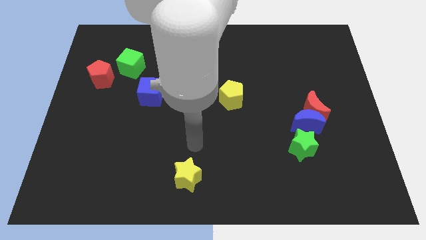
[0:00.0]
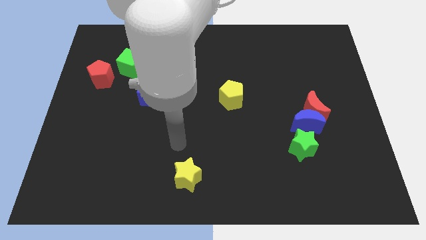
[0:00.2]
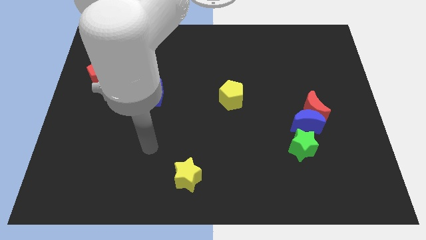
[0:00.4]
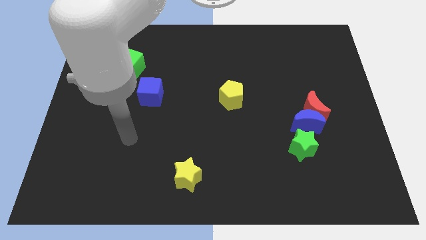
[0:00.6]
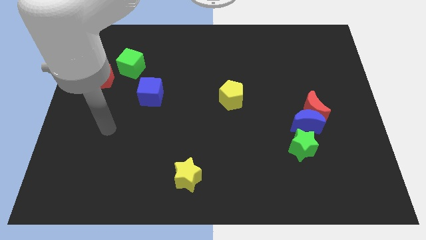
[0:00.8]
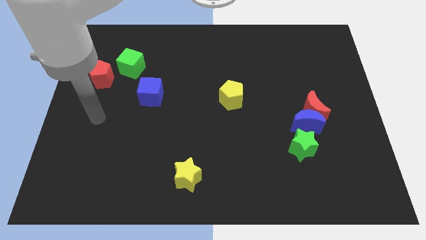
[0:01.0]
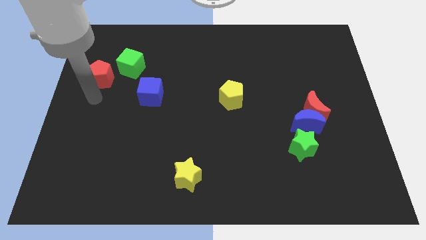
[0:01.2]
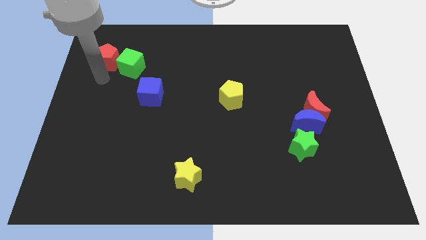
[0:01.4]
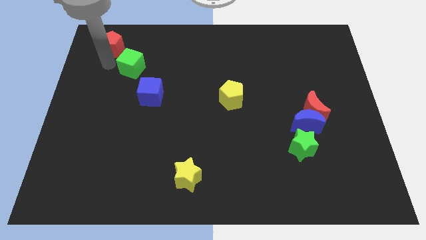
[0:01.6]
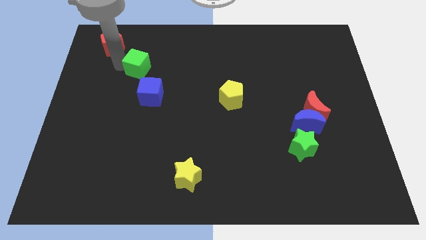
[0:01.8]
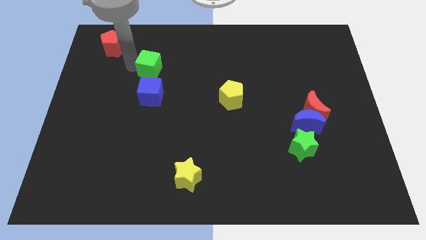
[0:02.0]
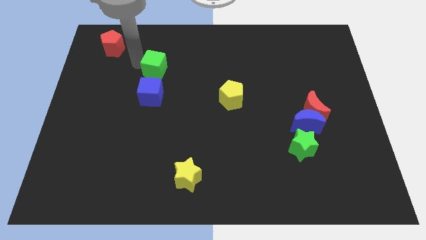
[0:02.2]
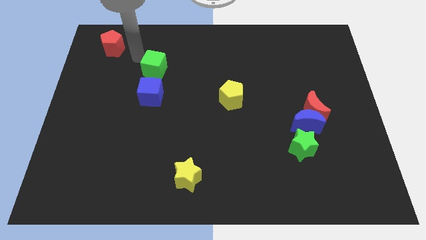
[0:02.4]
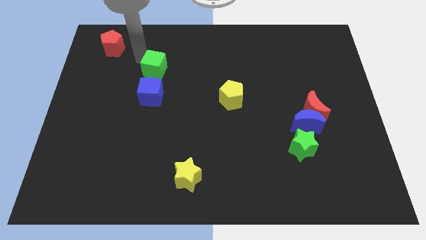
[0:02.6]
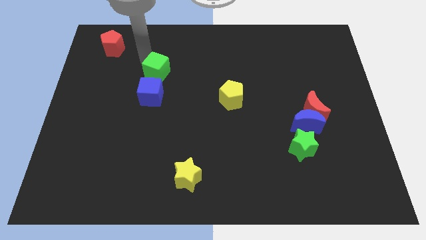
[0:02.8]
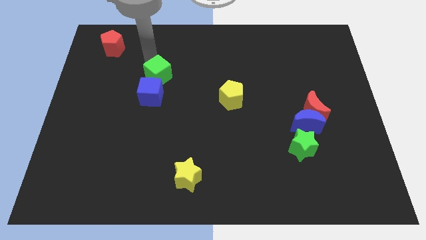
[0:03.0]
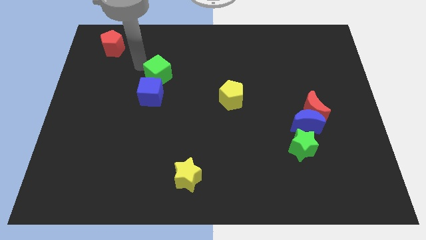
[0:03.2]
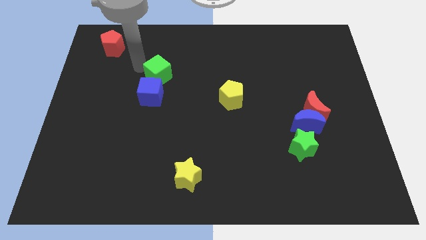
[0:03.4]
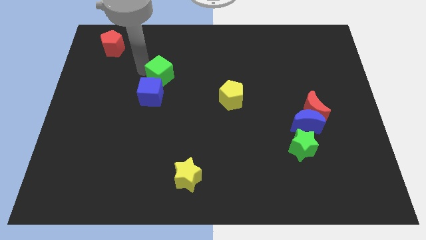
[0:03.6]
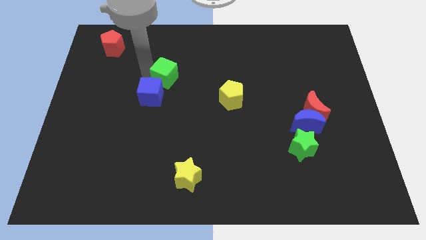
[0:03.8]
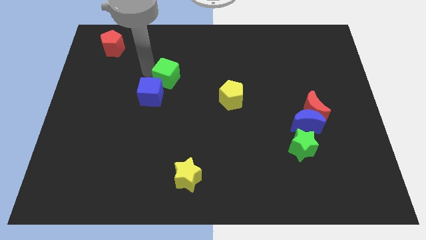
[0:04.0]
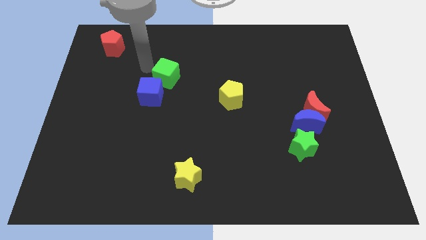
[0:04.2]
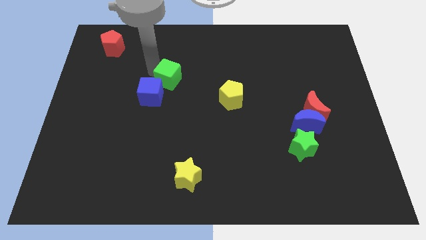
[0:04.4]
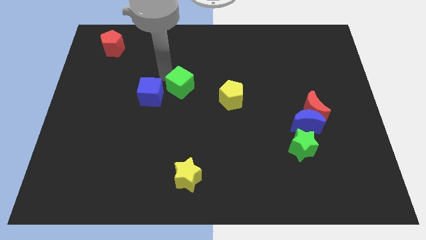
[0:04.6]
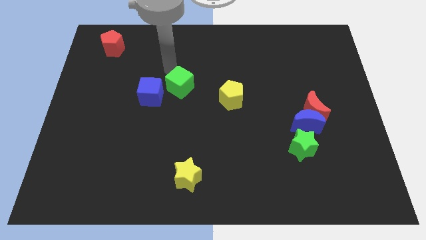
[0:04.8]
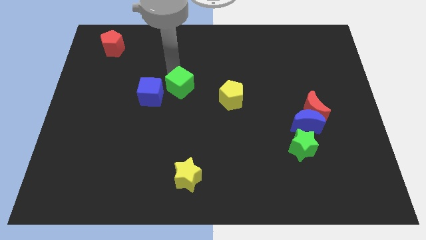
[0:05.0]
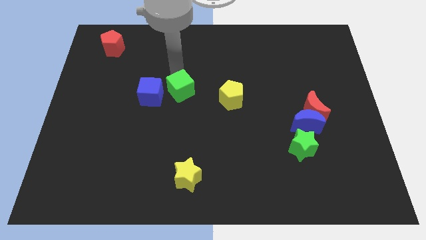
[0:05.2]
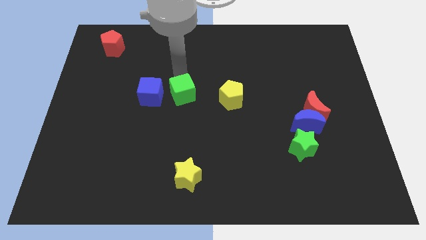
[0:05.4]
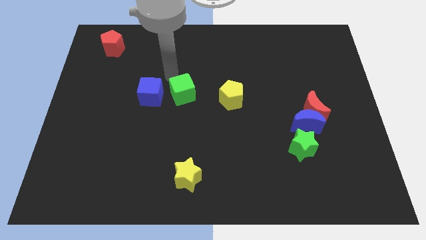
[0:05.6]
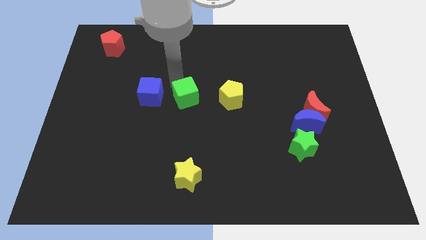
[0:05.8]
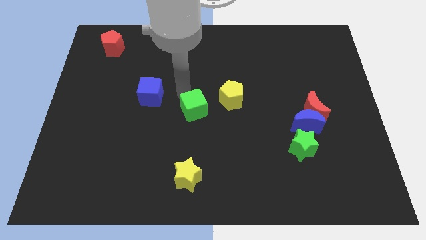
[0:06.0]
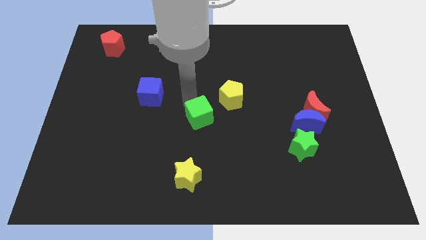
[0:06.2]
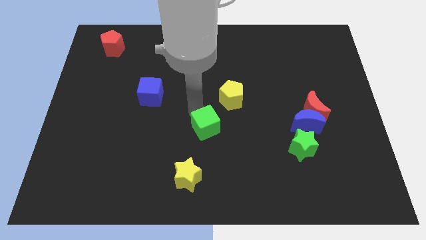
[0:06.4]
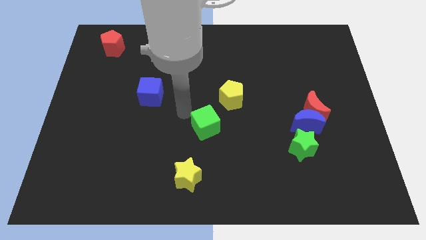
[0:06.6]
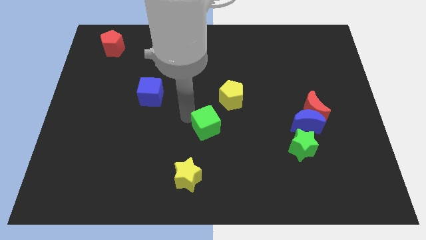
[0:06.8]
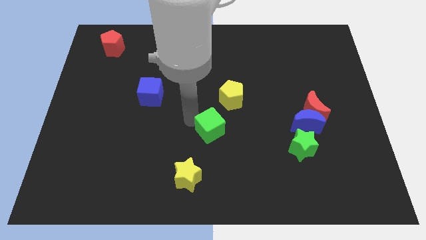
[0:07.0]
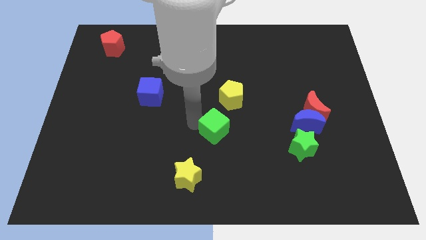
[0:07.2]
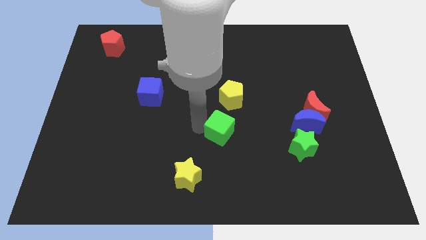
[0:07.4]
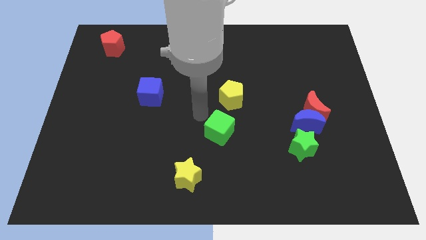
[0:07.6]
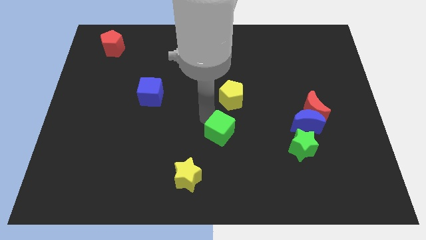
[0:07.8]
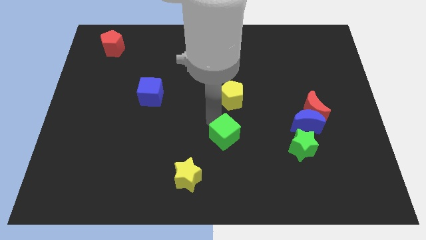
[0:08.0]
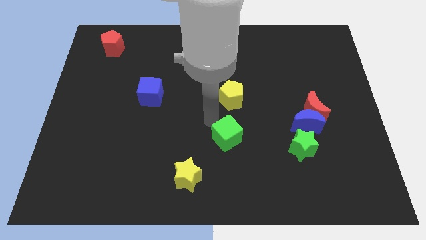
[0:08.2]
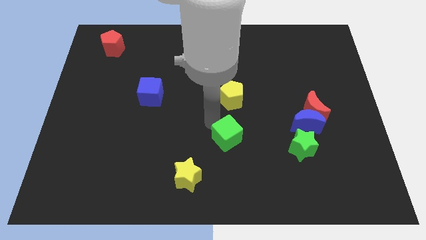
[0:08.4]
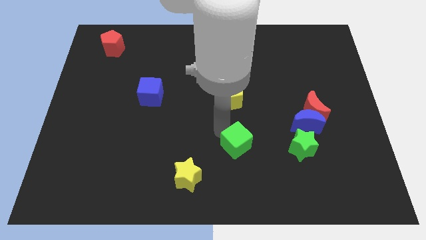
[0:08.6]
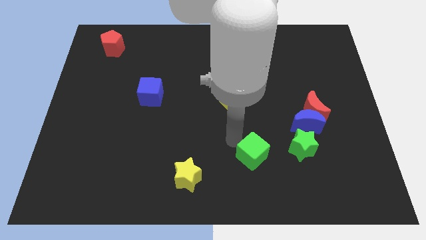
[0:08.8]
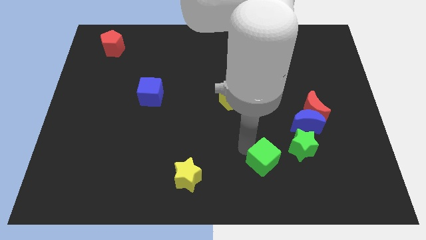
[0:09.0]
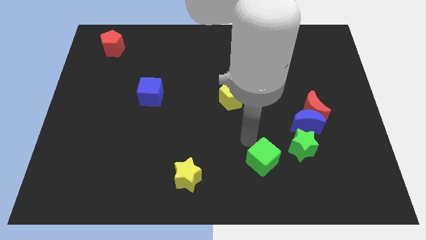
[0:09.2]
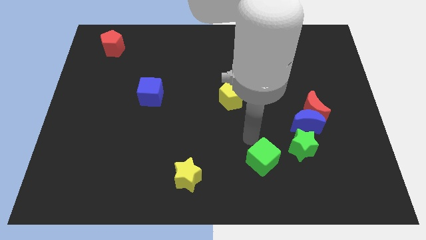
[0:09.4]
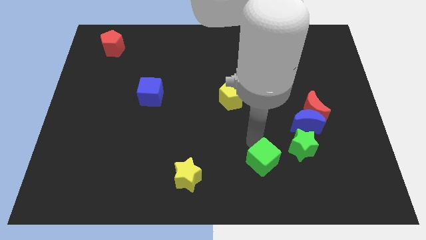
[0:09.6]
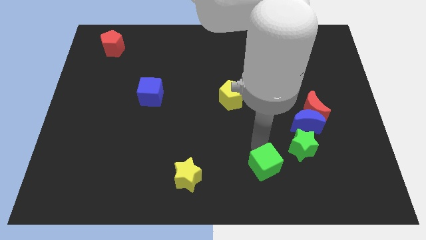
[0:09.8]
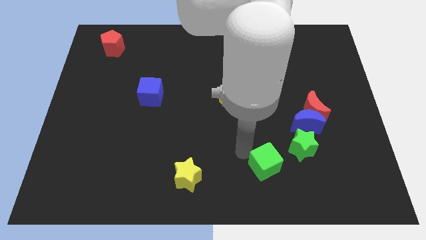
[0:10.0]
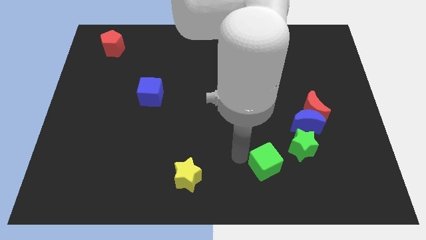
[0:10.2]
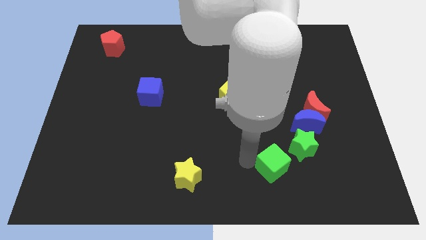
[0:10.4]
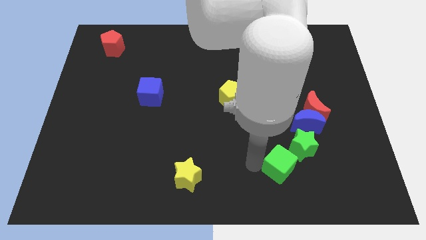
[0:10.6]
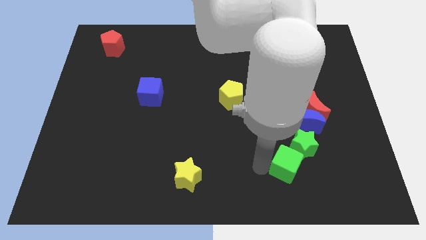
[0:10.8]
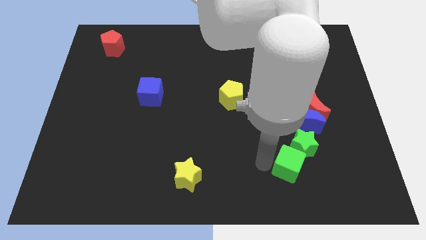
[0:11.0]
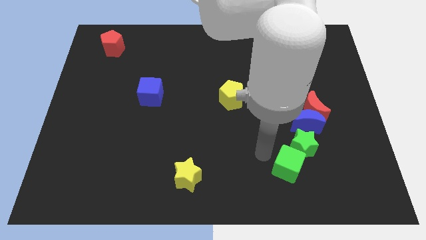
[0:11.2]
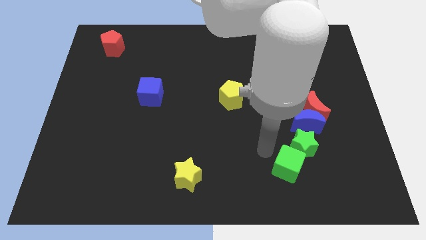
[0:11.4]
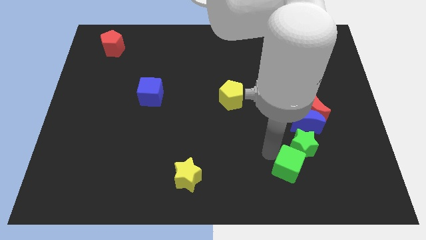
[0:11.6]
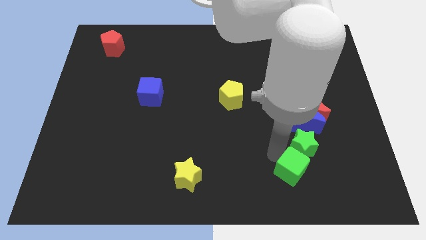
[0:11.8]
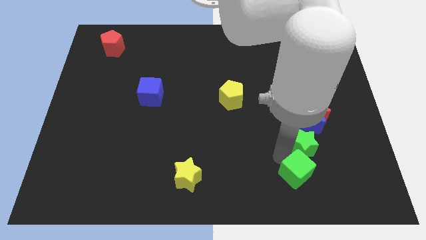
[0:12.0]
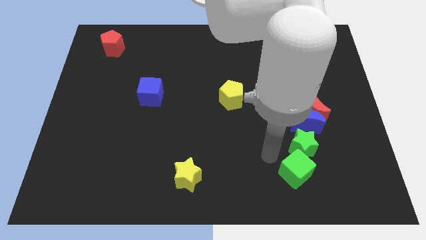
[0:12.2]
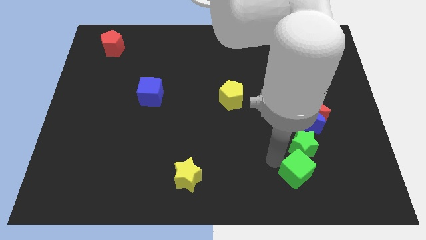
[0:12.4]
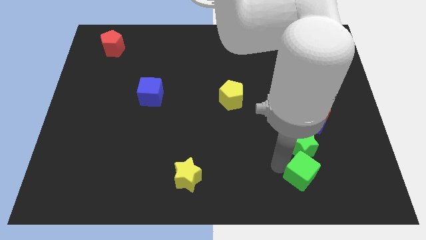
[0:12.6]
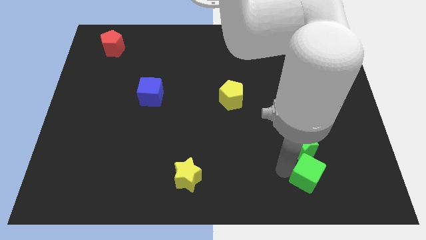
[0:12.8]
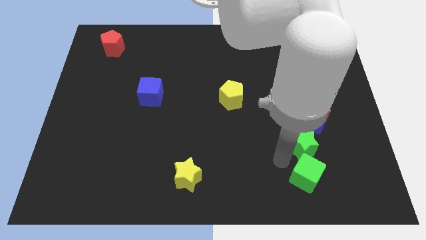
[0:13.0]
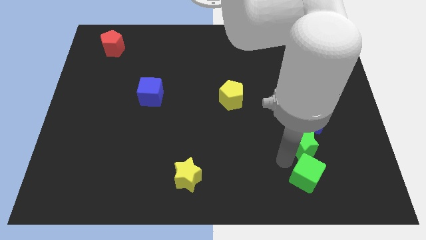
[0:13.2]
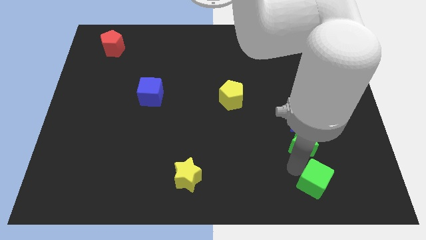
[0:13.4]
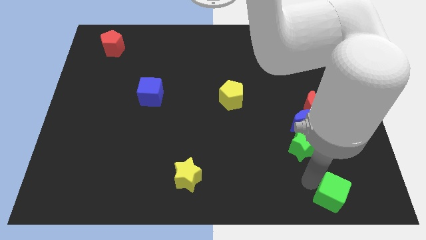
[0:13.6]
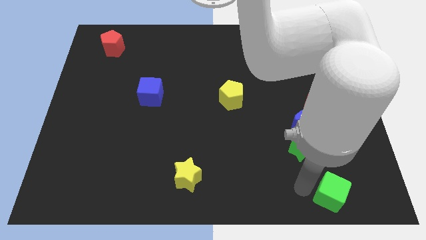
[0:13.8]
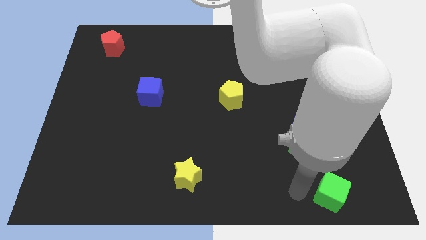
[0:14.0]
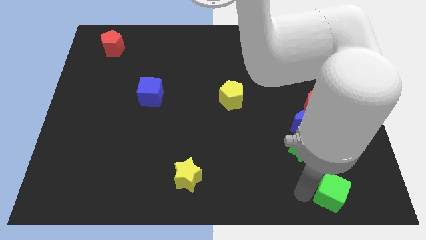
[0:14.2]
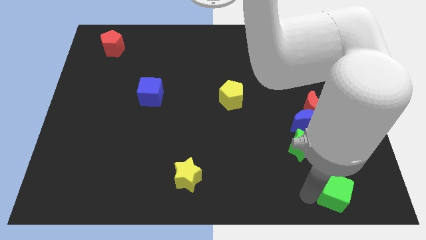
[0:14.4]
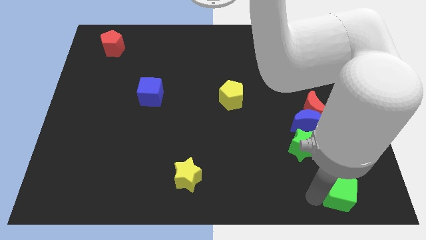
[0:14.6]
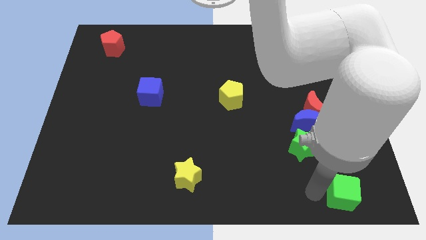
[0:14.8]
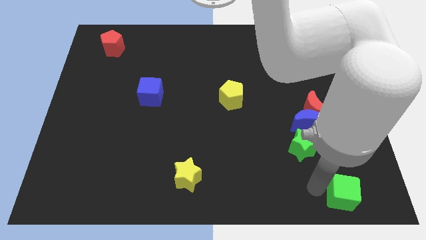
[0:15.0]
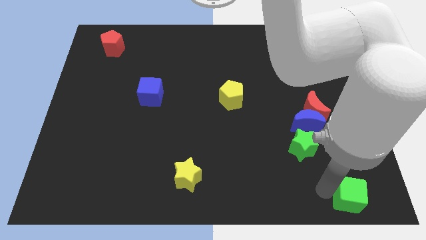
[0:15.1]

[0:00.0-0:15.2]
move the green cube to the lower right corner
